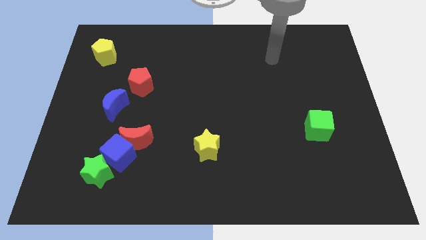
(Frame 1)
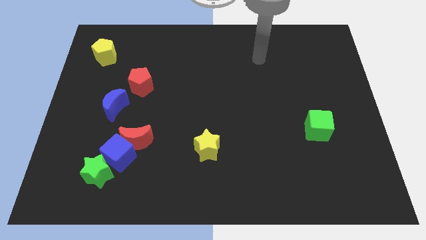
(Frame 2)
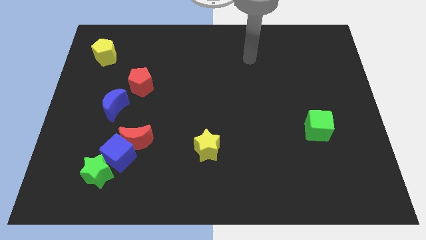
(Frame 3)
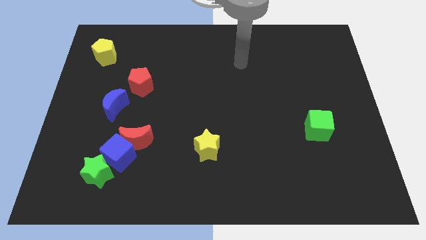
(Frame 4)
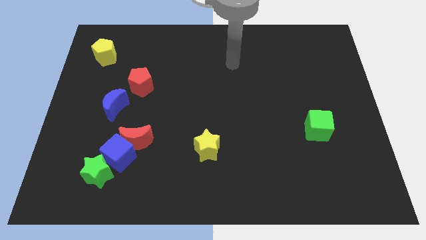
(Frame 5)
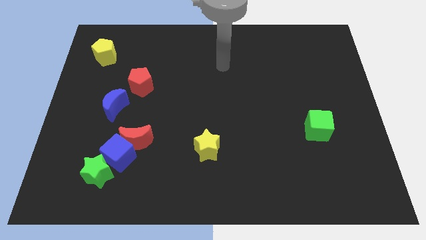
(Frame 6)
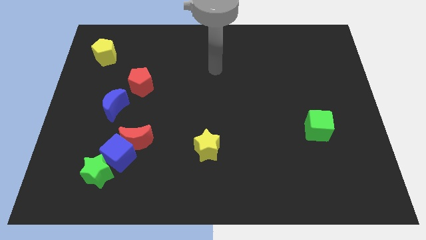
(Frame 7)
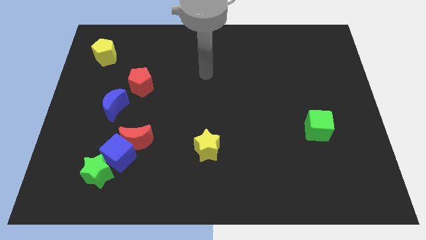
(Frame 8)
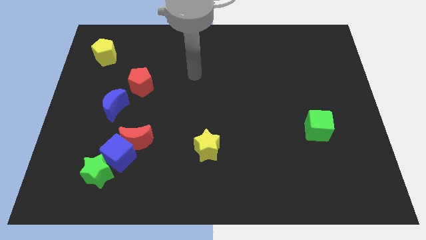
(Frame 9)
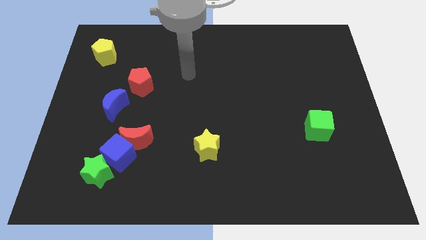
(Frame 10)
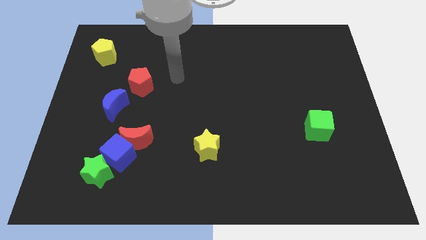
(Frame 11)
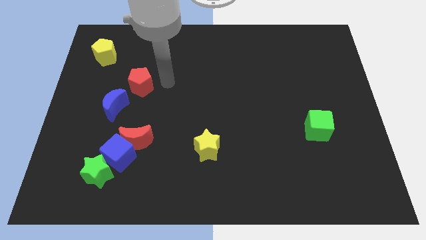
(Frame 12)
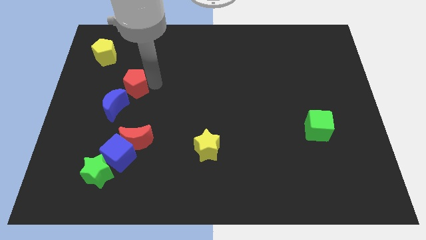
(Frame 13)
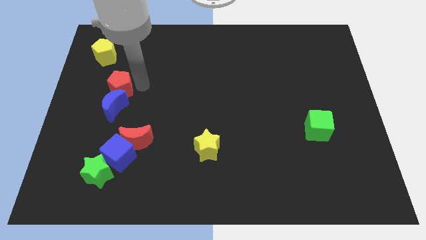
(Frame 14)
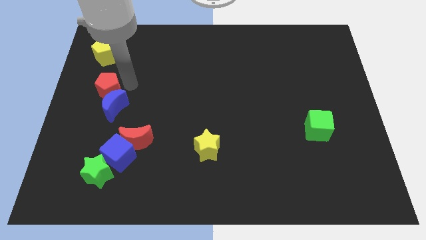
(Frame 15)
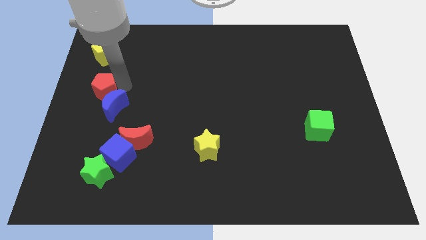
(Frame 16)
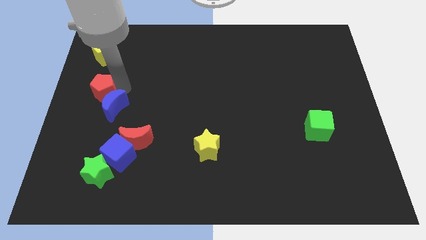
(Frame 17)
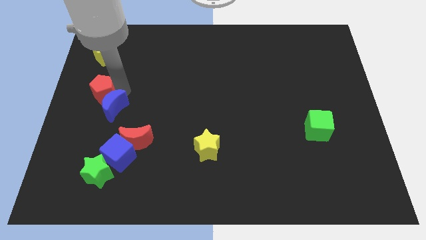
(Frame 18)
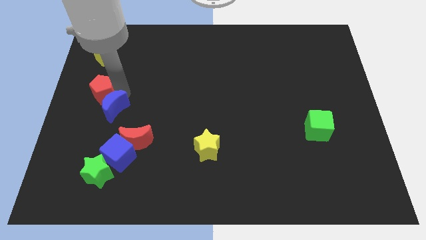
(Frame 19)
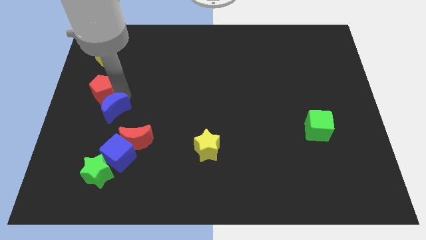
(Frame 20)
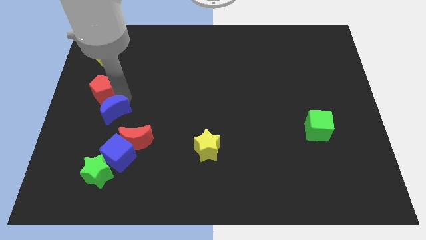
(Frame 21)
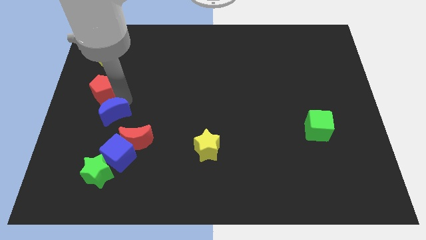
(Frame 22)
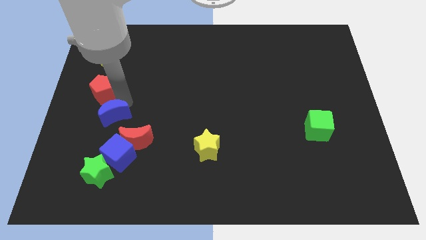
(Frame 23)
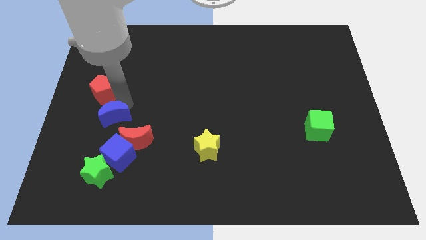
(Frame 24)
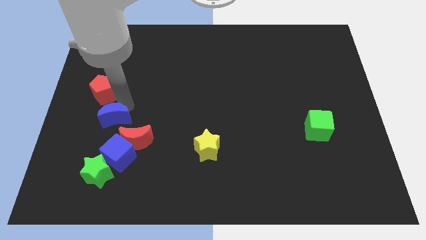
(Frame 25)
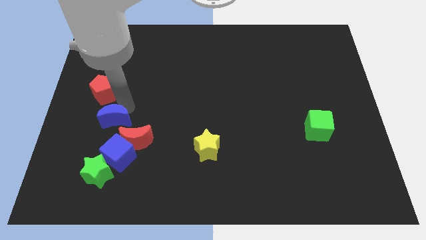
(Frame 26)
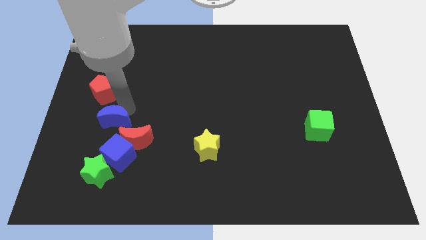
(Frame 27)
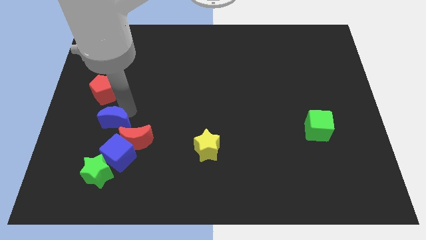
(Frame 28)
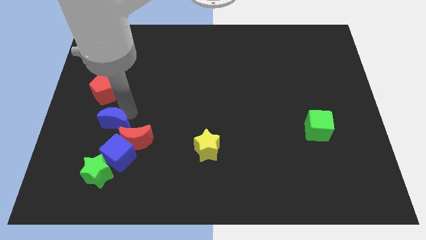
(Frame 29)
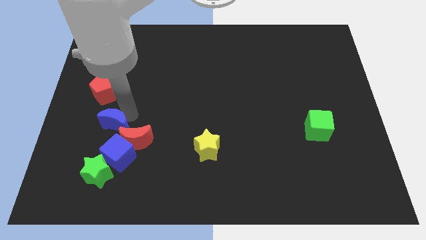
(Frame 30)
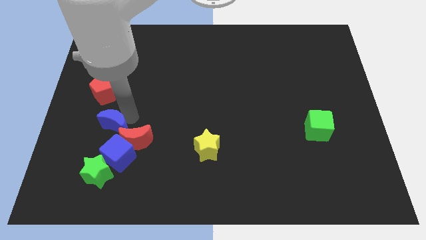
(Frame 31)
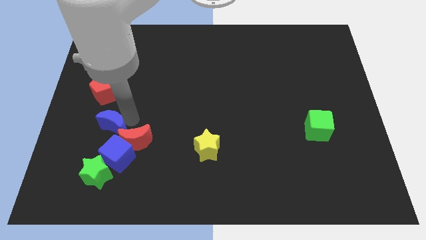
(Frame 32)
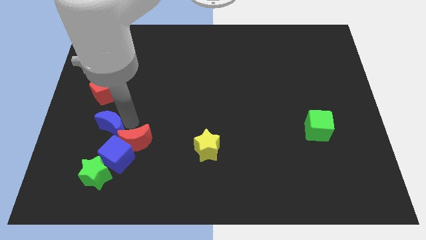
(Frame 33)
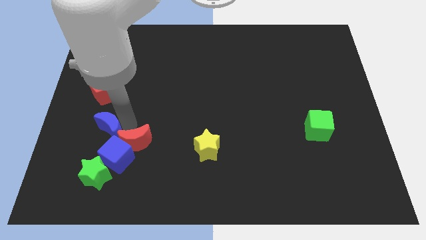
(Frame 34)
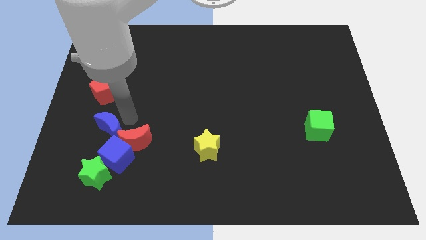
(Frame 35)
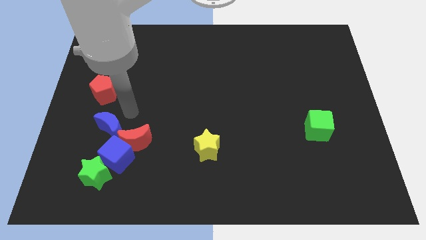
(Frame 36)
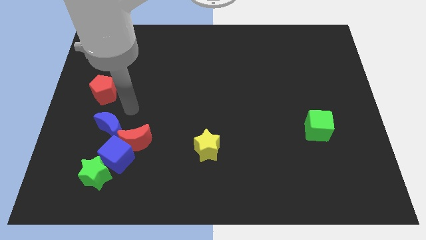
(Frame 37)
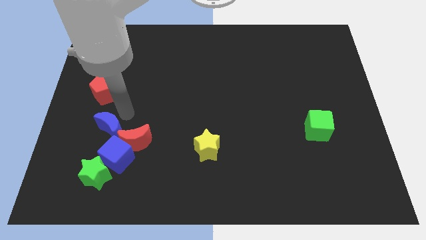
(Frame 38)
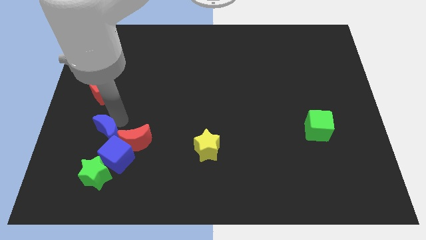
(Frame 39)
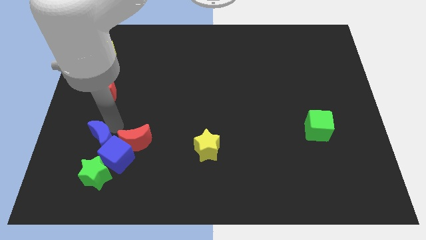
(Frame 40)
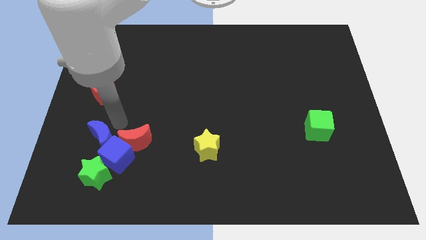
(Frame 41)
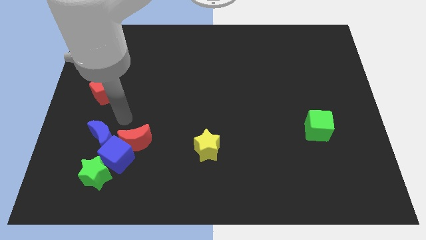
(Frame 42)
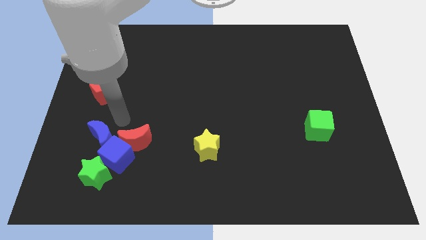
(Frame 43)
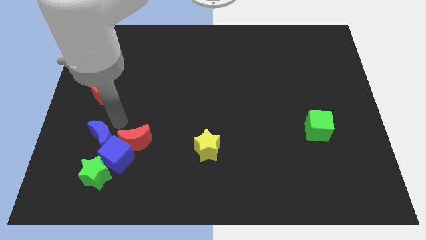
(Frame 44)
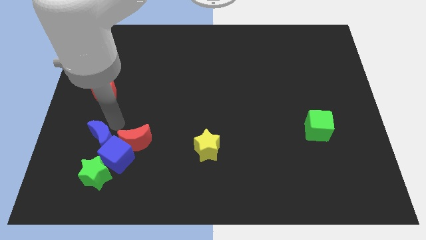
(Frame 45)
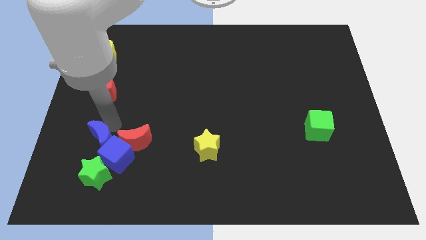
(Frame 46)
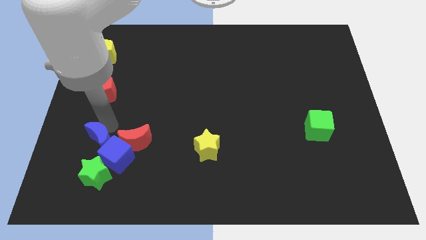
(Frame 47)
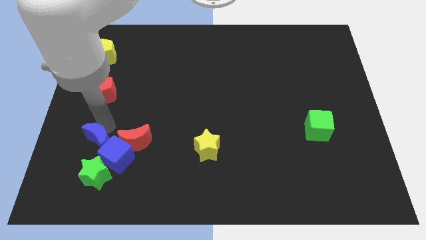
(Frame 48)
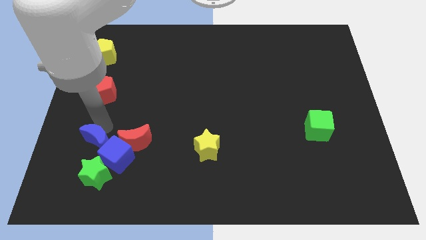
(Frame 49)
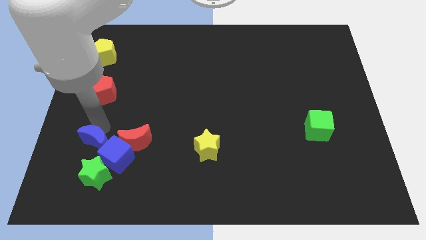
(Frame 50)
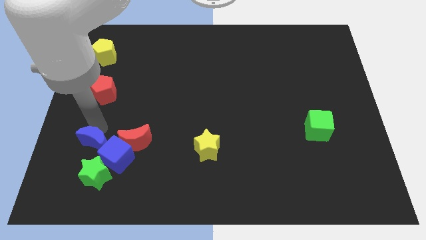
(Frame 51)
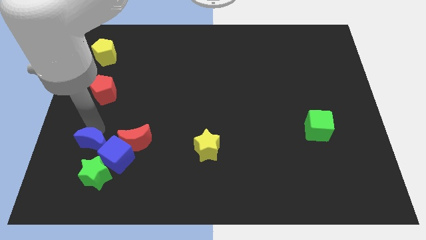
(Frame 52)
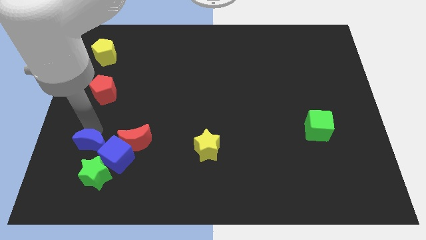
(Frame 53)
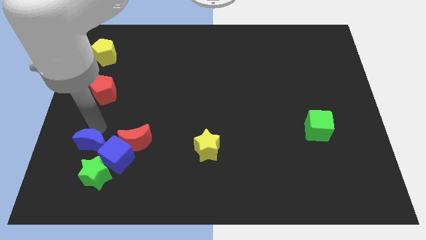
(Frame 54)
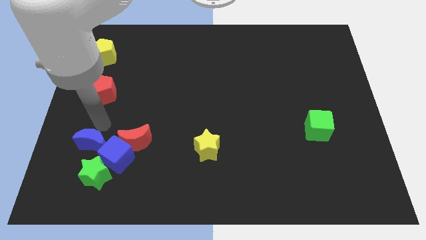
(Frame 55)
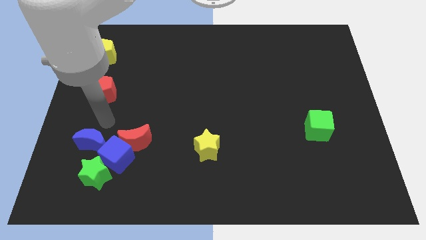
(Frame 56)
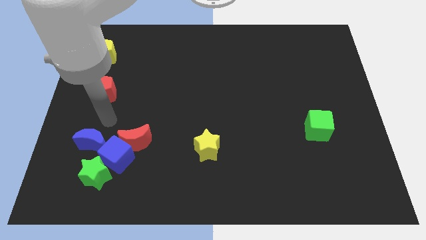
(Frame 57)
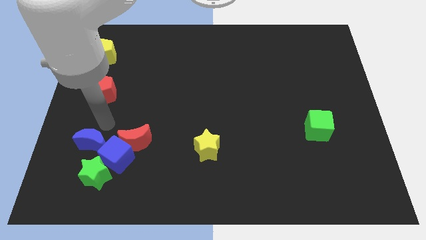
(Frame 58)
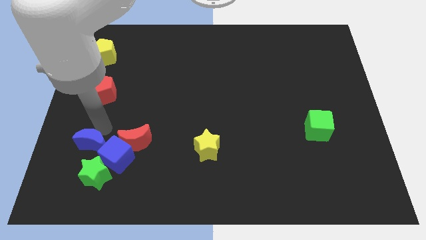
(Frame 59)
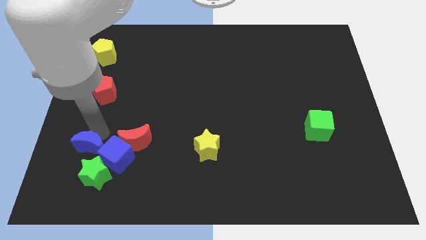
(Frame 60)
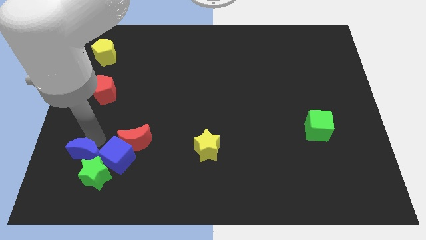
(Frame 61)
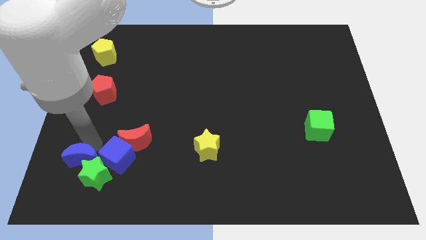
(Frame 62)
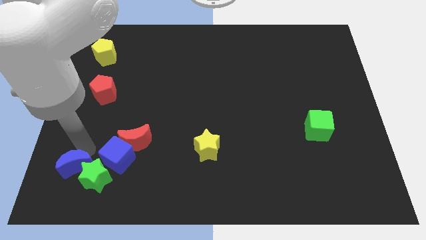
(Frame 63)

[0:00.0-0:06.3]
push the blue moon to the bottom left of the blue cube

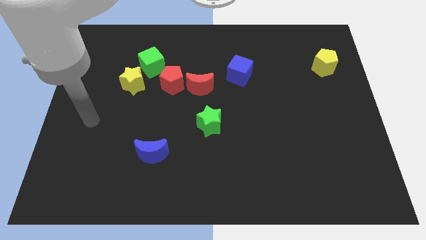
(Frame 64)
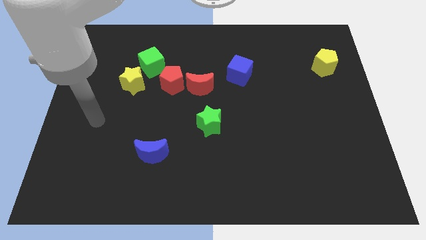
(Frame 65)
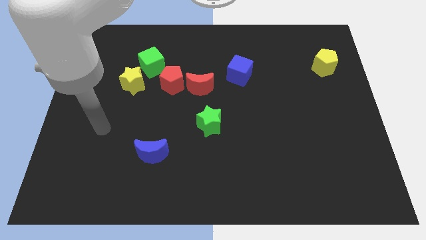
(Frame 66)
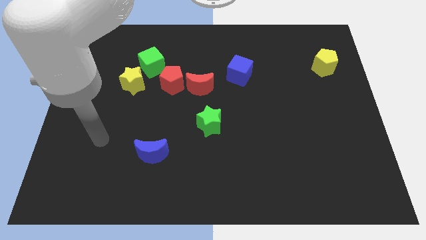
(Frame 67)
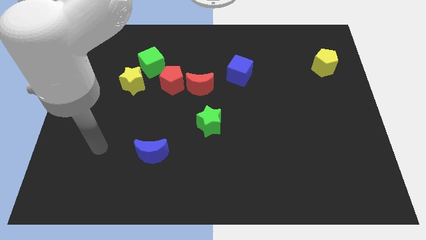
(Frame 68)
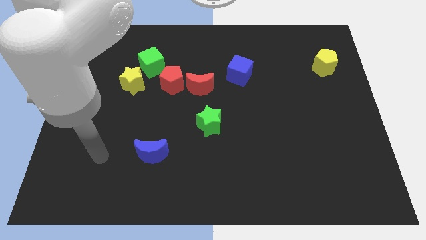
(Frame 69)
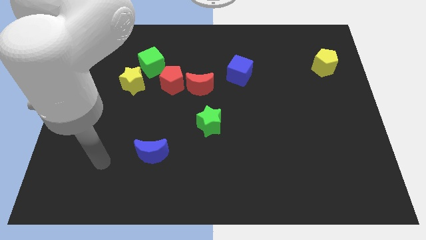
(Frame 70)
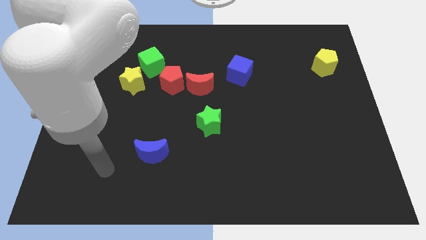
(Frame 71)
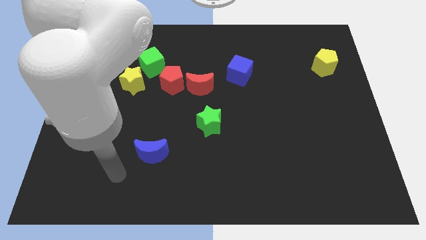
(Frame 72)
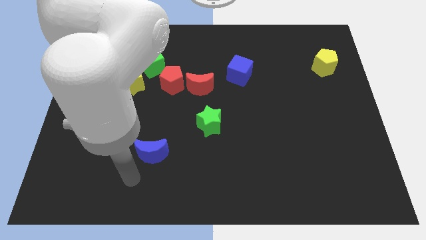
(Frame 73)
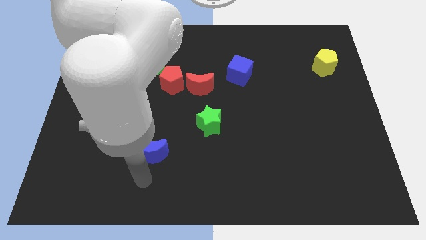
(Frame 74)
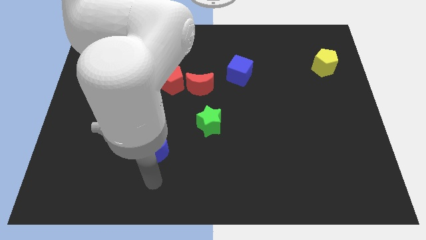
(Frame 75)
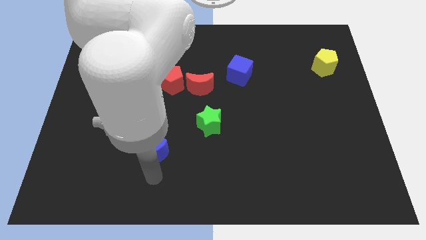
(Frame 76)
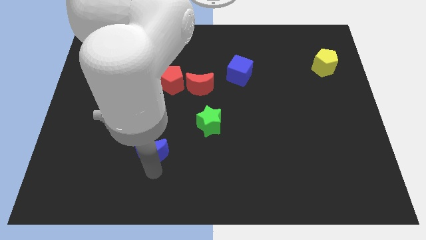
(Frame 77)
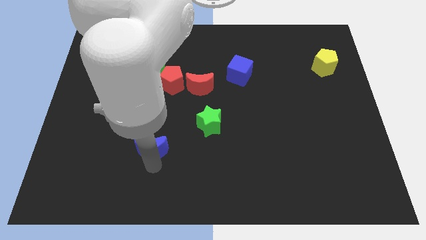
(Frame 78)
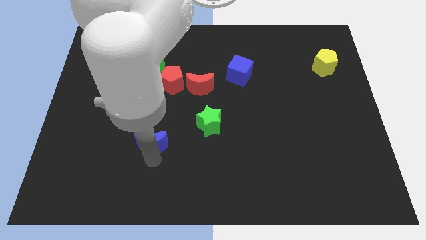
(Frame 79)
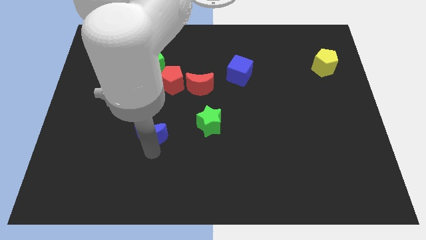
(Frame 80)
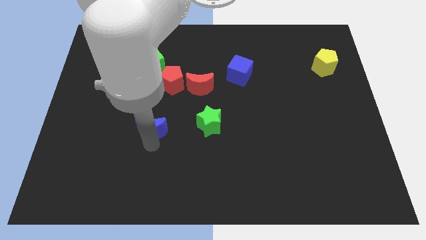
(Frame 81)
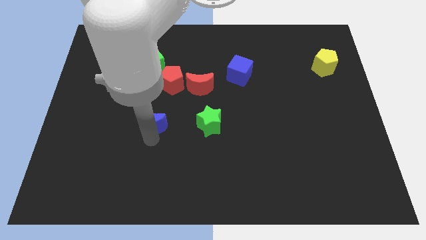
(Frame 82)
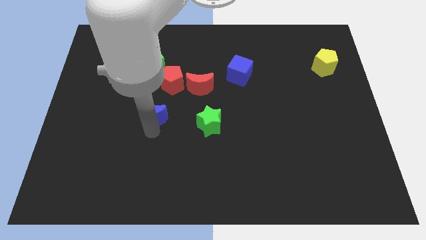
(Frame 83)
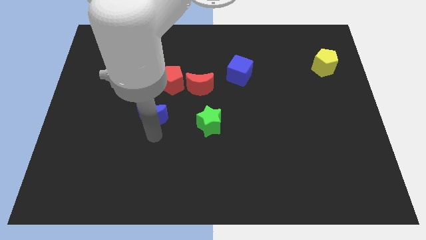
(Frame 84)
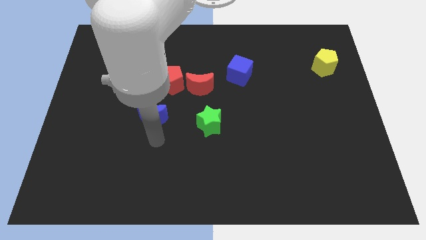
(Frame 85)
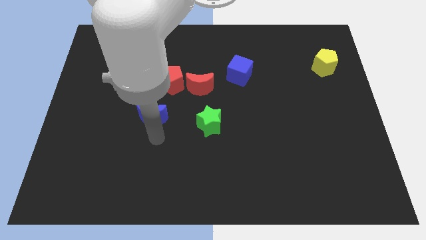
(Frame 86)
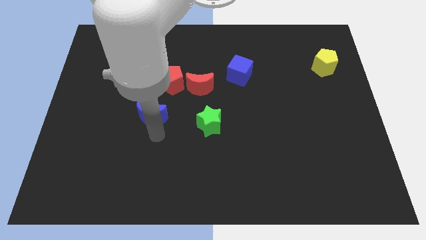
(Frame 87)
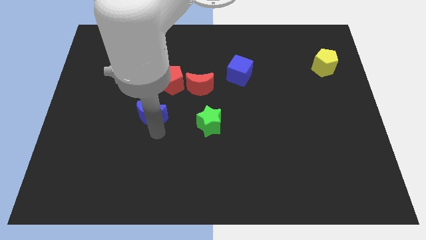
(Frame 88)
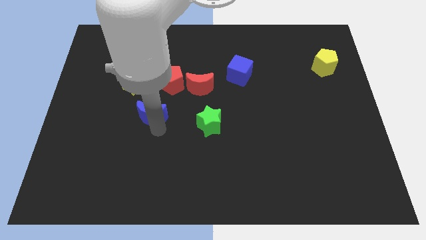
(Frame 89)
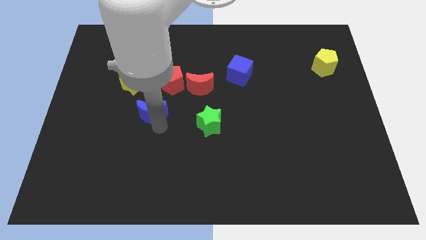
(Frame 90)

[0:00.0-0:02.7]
slide the blue moon to the bottom of the green cube
